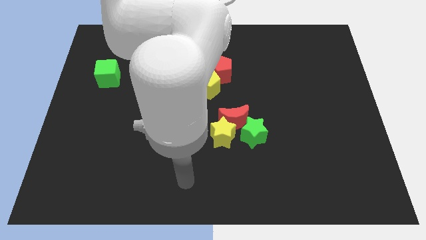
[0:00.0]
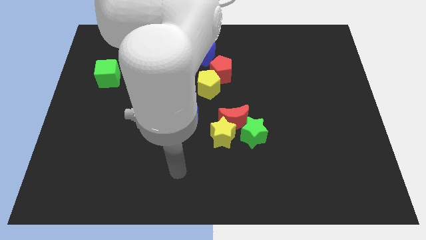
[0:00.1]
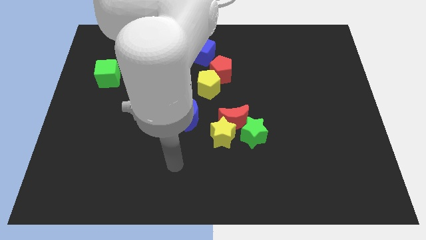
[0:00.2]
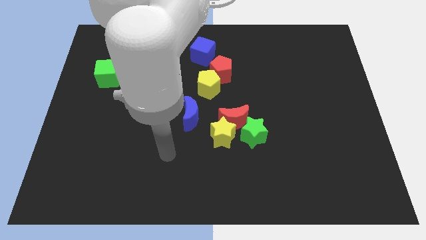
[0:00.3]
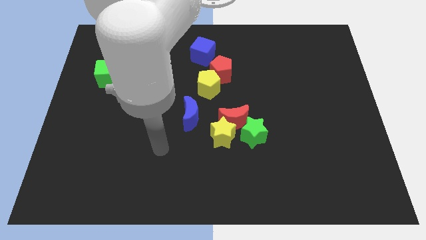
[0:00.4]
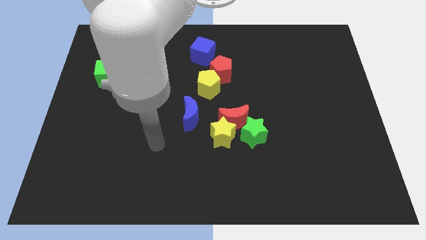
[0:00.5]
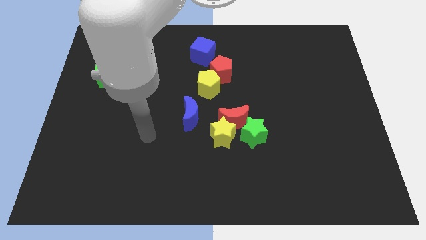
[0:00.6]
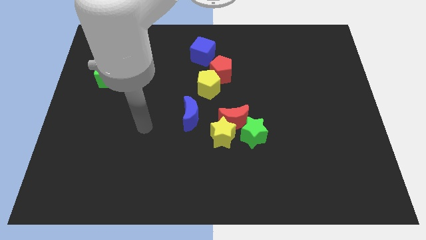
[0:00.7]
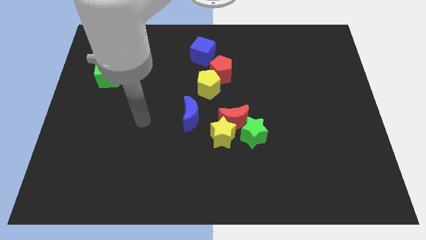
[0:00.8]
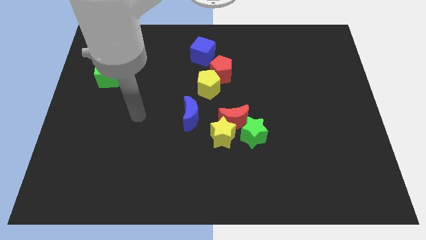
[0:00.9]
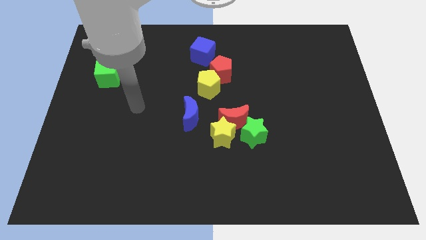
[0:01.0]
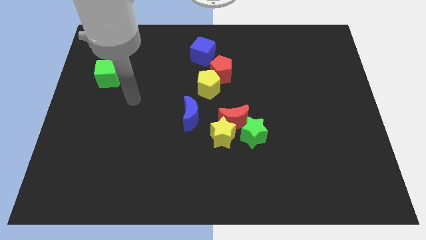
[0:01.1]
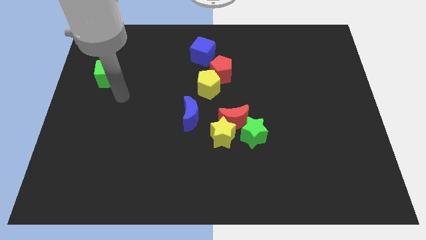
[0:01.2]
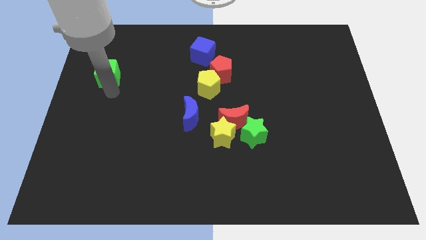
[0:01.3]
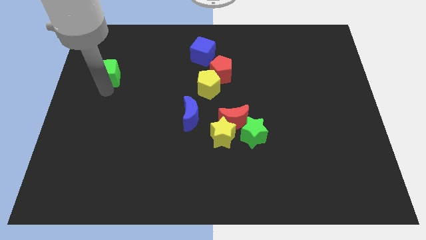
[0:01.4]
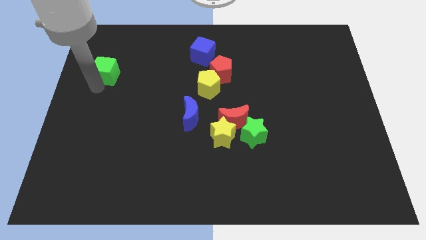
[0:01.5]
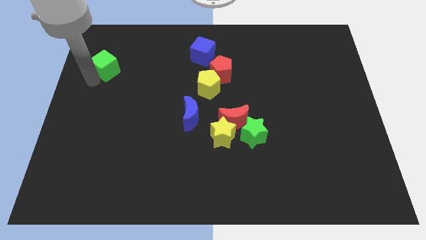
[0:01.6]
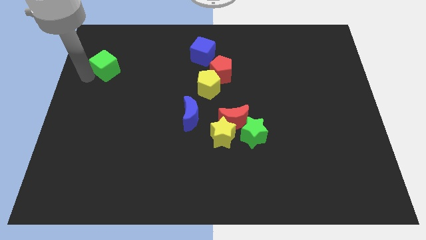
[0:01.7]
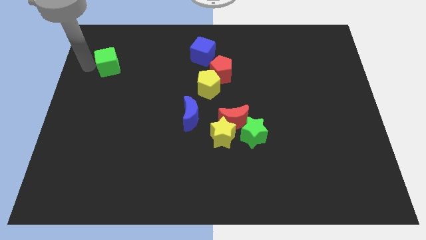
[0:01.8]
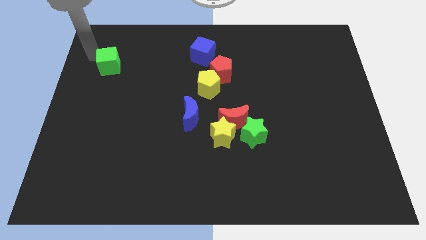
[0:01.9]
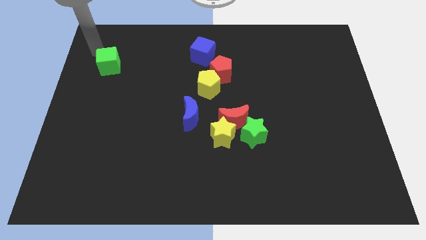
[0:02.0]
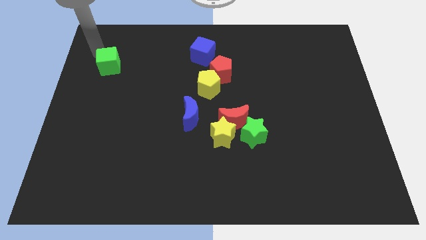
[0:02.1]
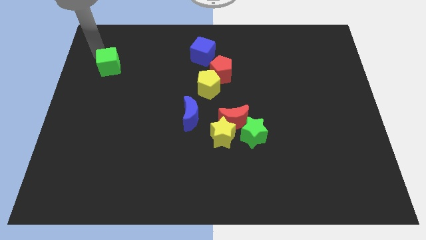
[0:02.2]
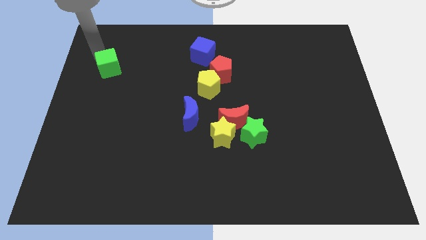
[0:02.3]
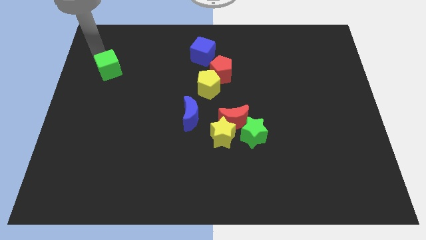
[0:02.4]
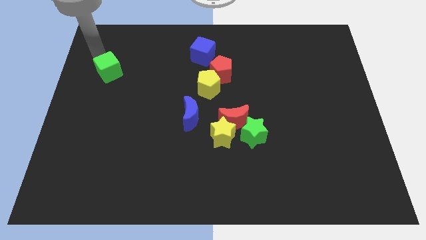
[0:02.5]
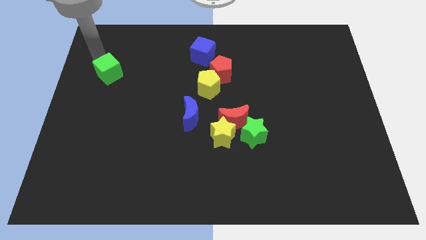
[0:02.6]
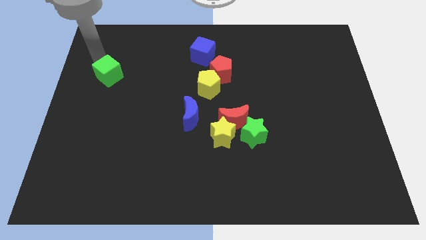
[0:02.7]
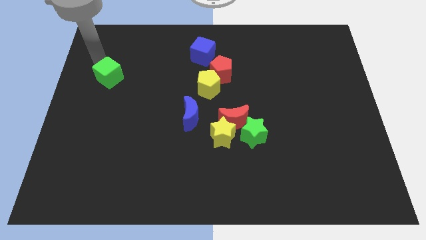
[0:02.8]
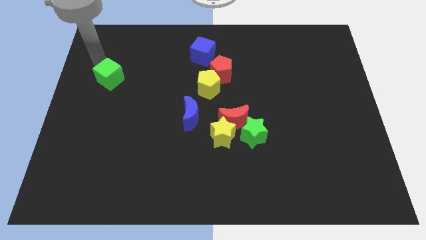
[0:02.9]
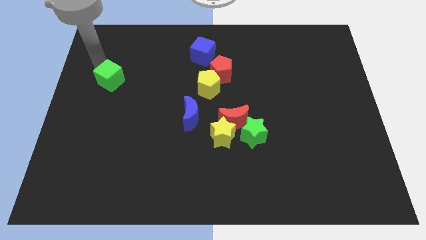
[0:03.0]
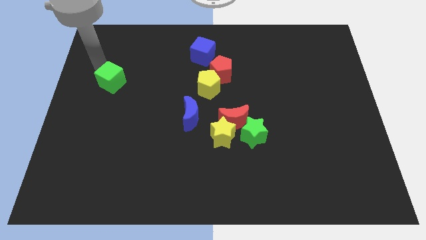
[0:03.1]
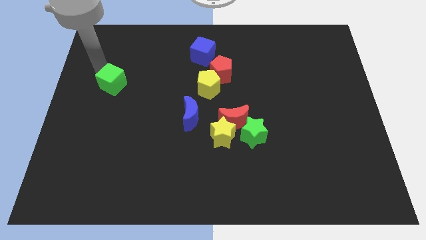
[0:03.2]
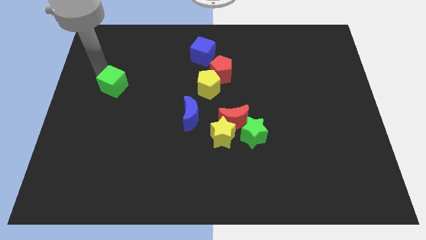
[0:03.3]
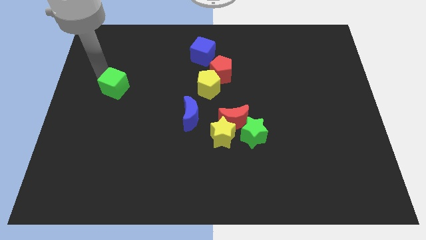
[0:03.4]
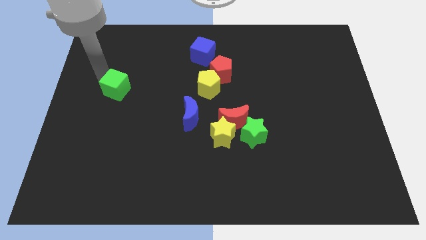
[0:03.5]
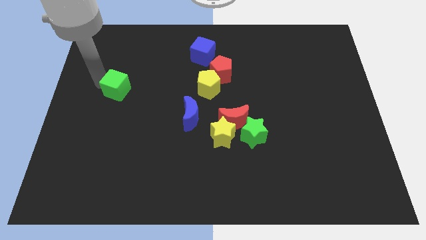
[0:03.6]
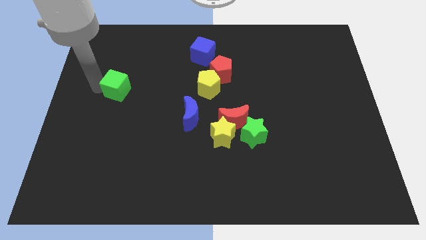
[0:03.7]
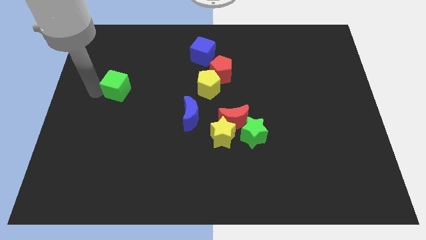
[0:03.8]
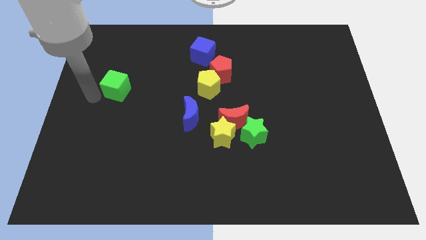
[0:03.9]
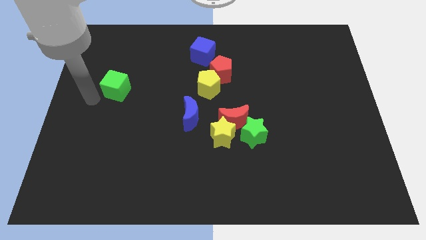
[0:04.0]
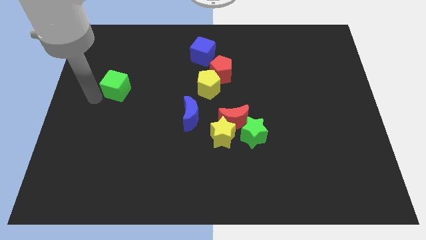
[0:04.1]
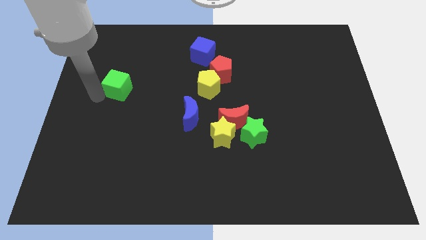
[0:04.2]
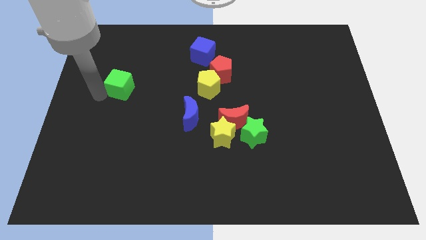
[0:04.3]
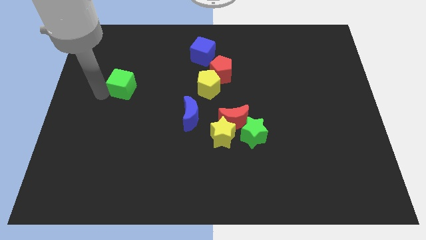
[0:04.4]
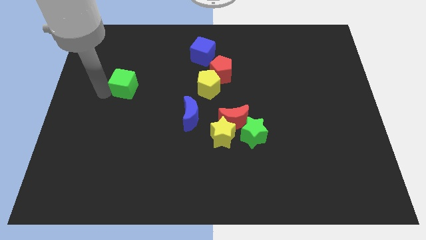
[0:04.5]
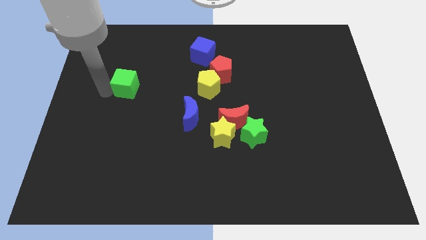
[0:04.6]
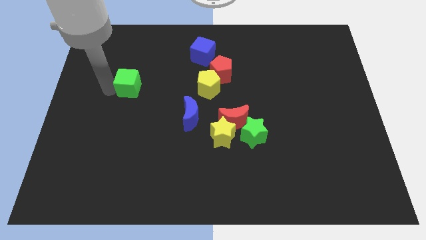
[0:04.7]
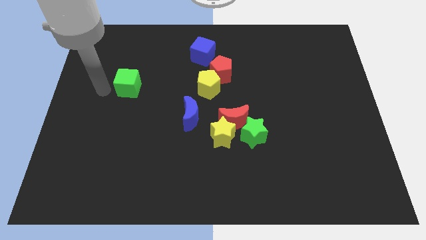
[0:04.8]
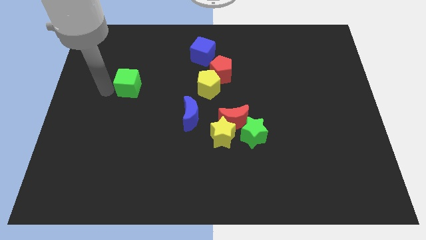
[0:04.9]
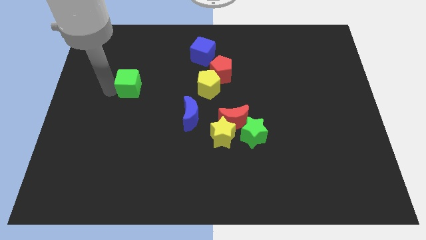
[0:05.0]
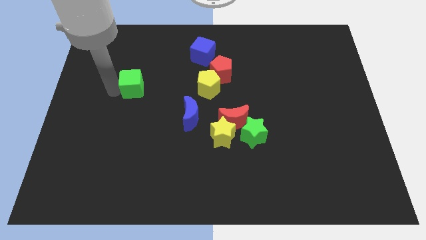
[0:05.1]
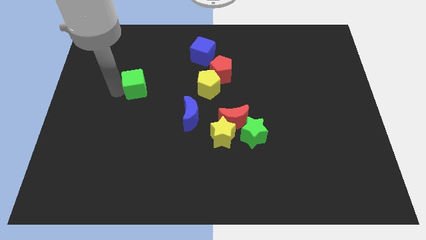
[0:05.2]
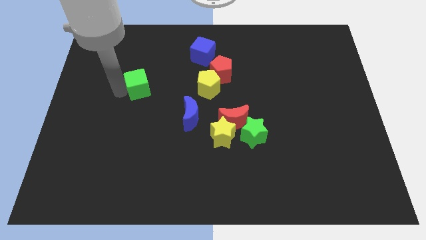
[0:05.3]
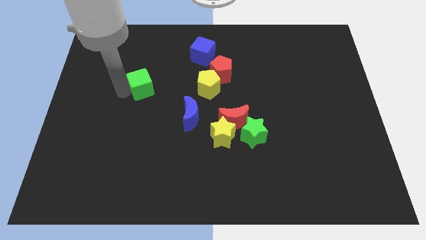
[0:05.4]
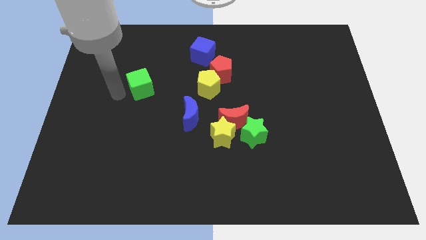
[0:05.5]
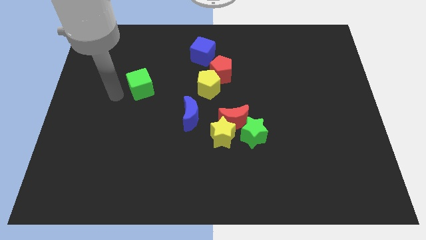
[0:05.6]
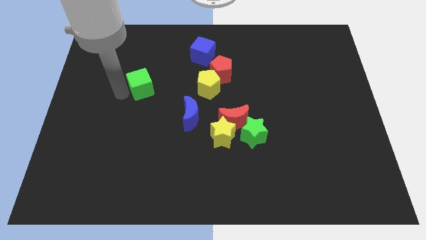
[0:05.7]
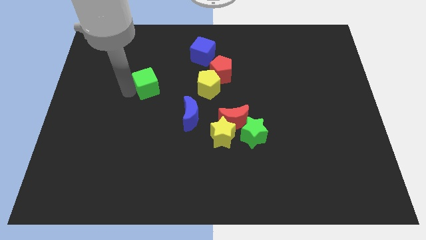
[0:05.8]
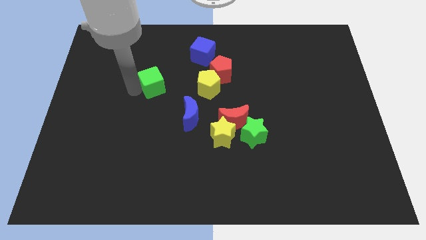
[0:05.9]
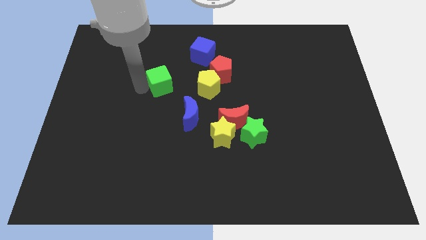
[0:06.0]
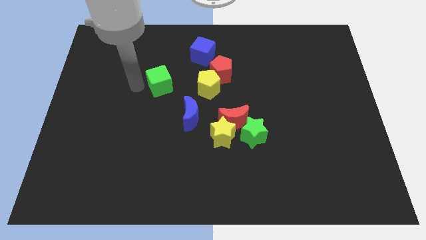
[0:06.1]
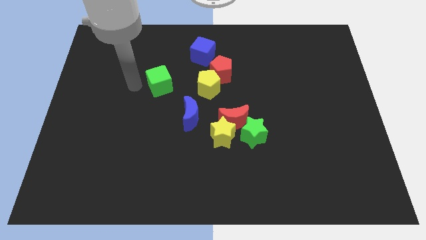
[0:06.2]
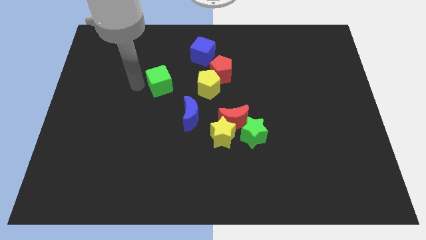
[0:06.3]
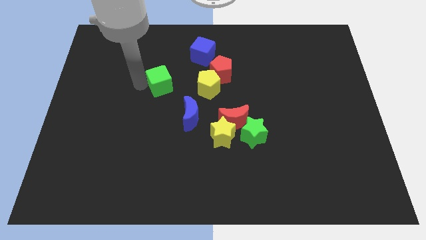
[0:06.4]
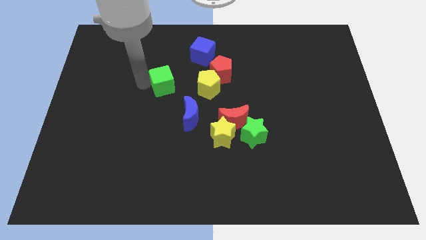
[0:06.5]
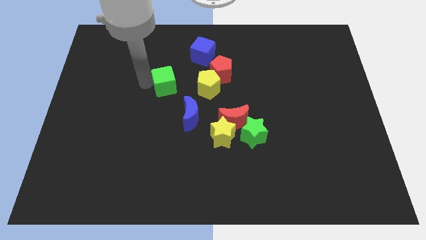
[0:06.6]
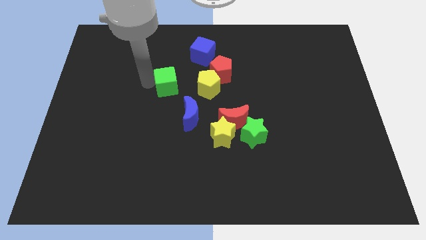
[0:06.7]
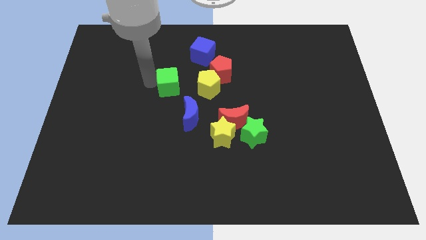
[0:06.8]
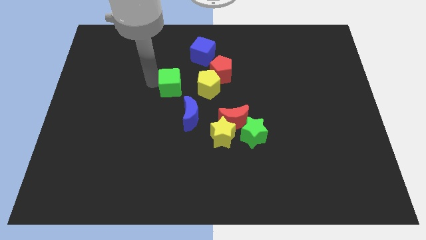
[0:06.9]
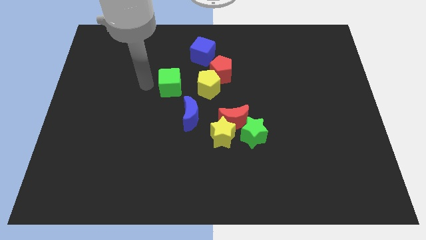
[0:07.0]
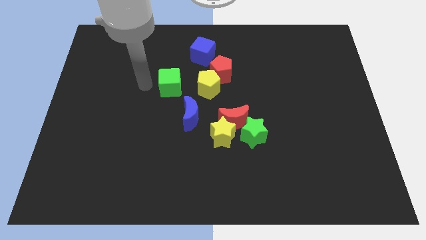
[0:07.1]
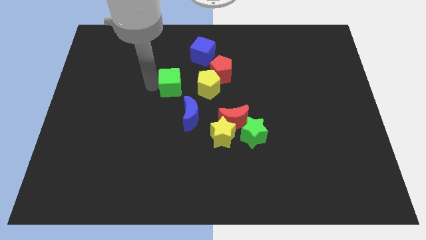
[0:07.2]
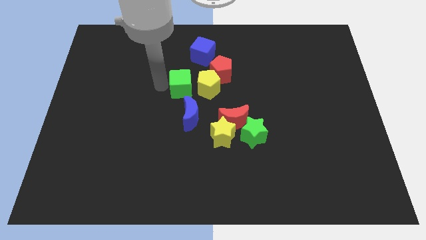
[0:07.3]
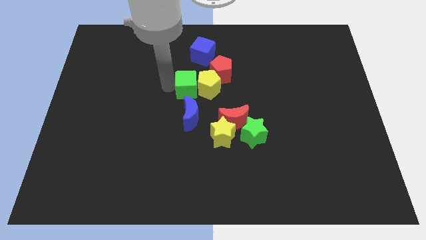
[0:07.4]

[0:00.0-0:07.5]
move the green cube next to the yellow pentagon
